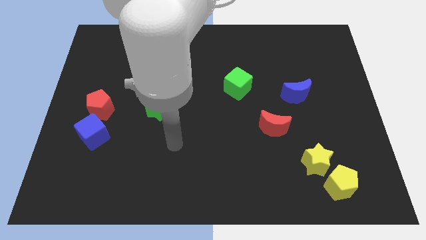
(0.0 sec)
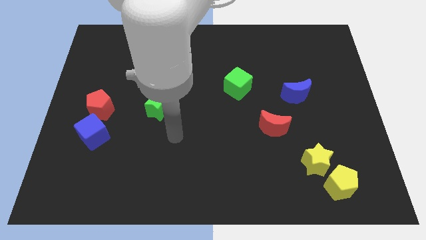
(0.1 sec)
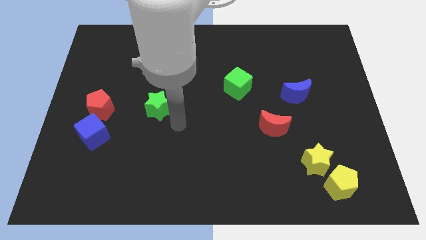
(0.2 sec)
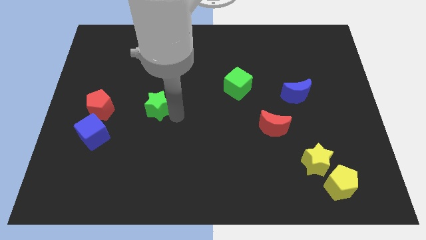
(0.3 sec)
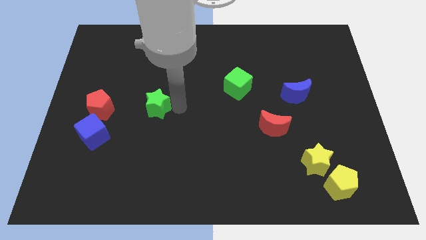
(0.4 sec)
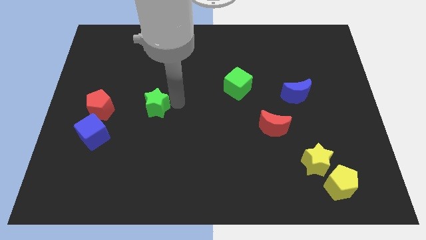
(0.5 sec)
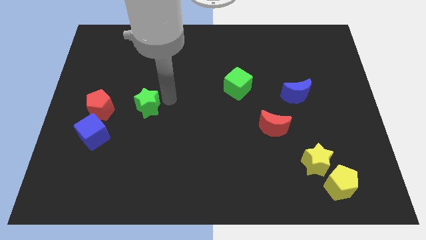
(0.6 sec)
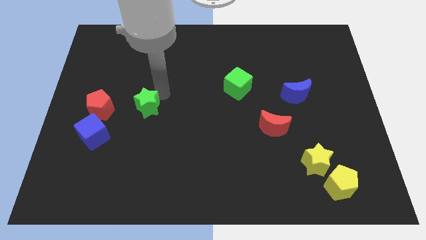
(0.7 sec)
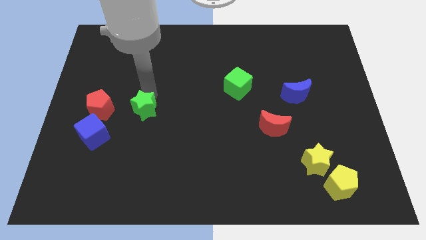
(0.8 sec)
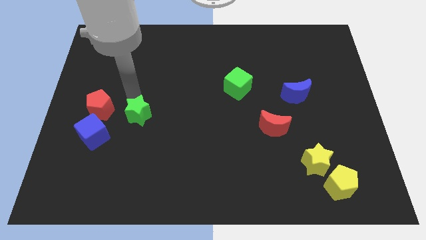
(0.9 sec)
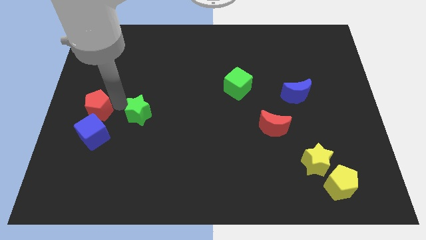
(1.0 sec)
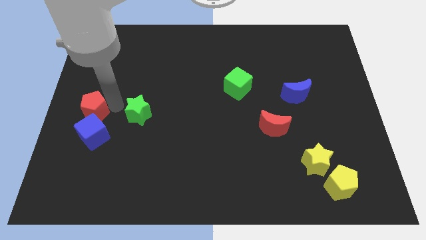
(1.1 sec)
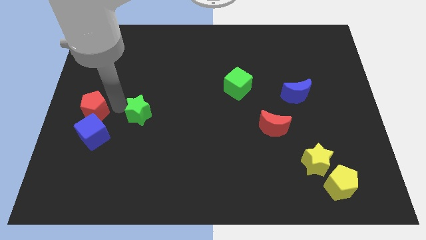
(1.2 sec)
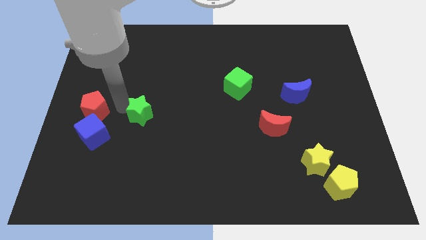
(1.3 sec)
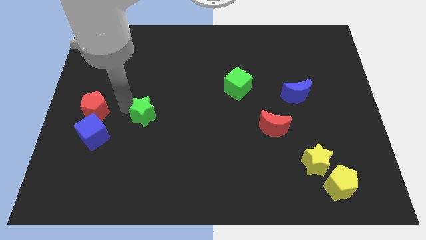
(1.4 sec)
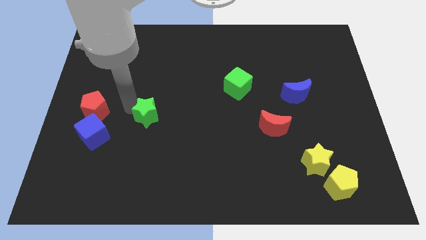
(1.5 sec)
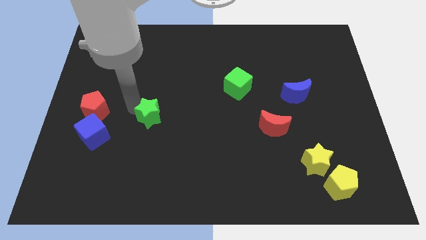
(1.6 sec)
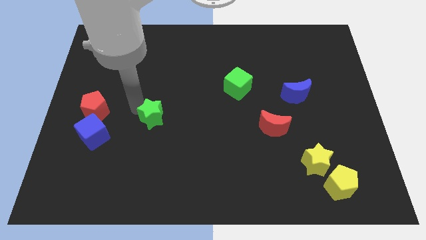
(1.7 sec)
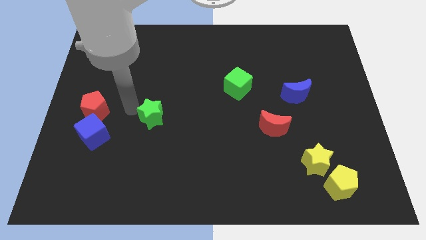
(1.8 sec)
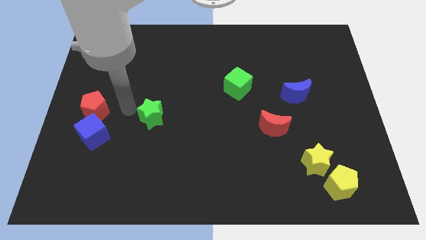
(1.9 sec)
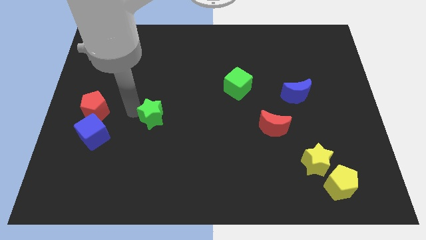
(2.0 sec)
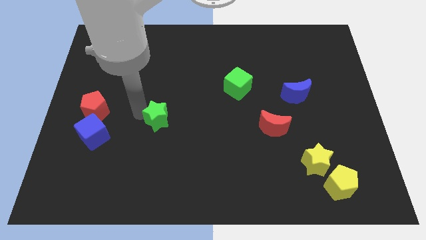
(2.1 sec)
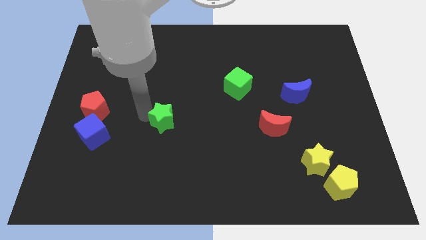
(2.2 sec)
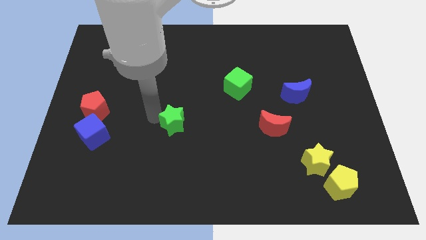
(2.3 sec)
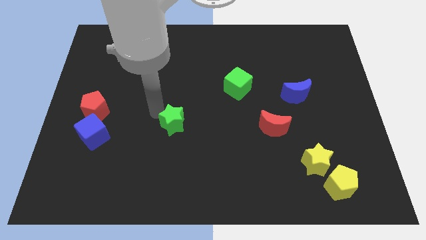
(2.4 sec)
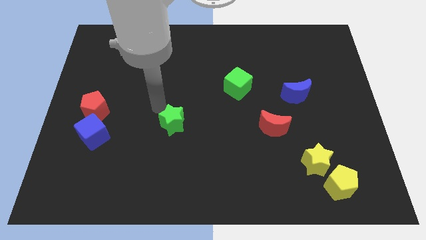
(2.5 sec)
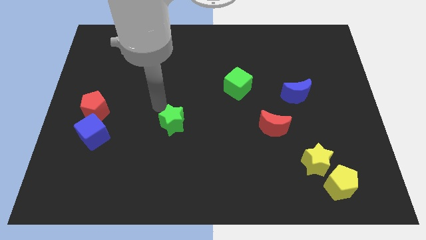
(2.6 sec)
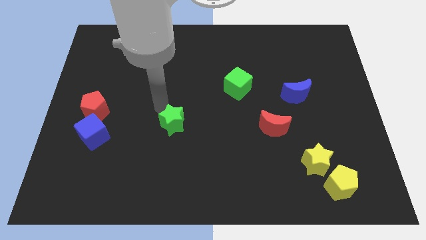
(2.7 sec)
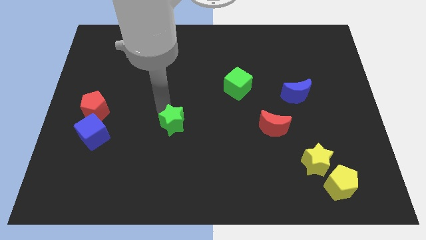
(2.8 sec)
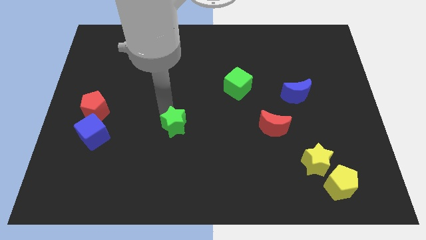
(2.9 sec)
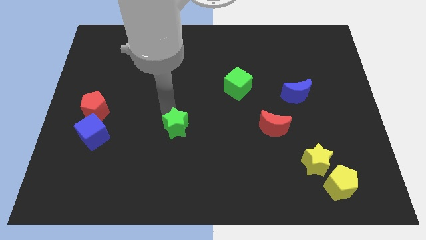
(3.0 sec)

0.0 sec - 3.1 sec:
push the green star a little downwards and right

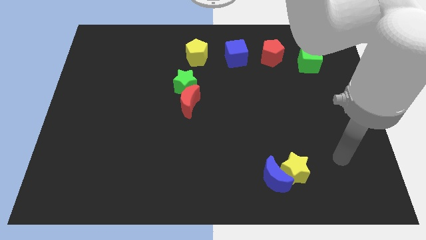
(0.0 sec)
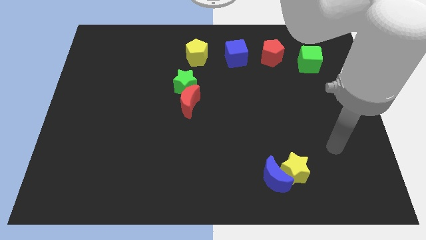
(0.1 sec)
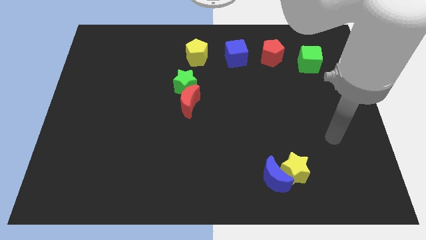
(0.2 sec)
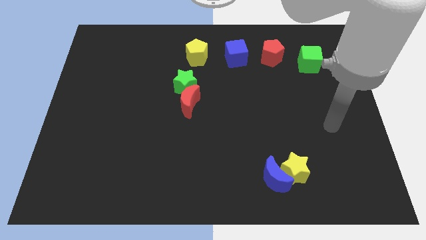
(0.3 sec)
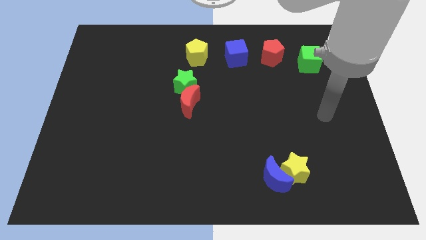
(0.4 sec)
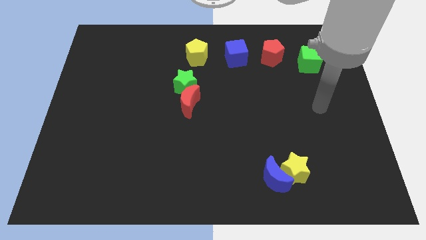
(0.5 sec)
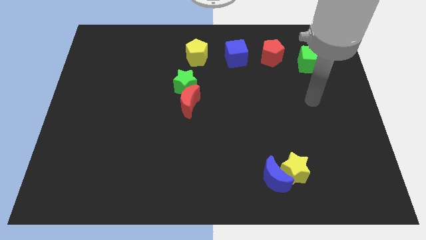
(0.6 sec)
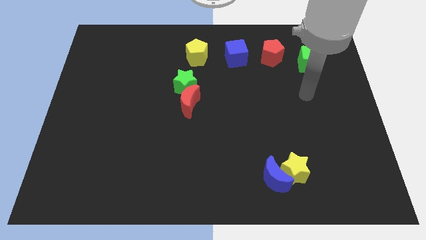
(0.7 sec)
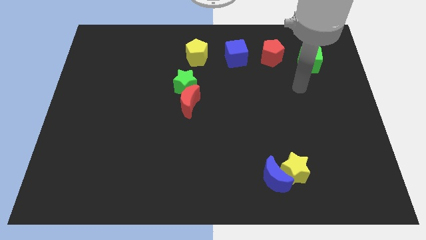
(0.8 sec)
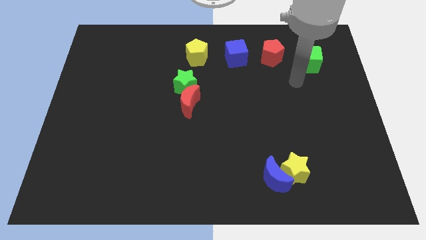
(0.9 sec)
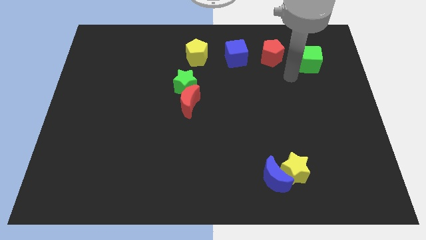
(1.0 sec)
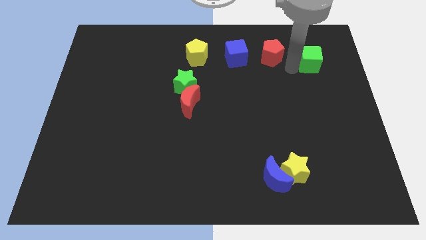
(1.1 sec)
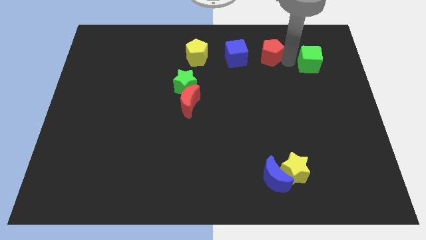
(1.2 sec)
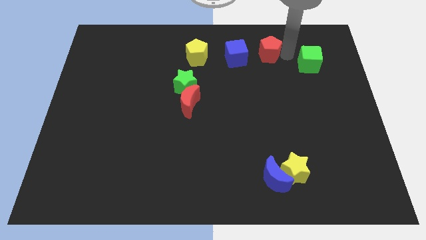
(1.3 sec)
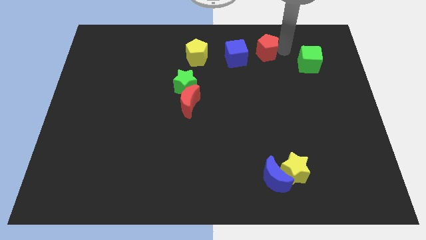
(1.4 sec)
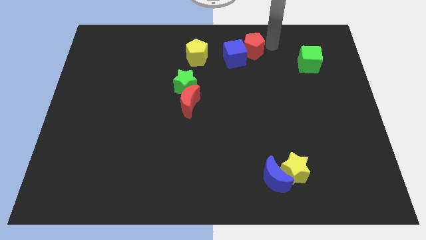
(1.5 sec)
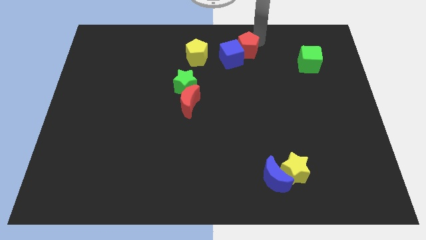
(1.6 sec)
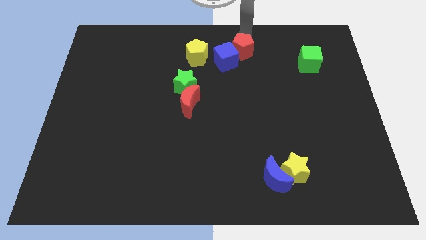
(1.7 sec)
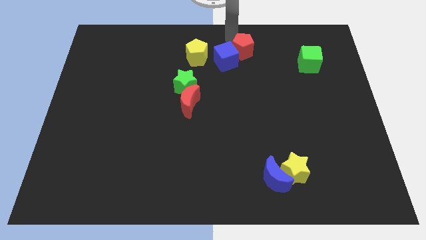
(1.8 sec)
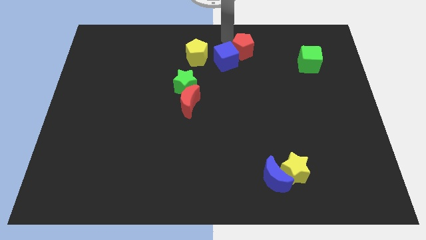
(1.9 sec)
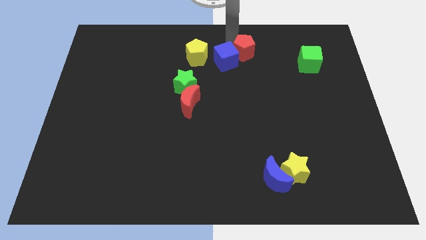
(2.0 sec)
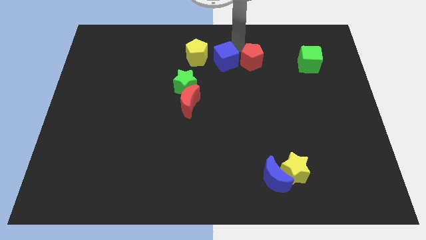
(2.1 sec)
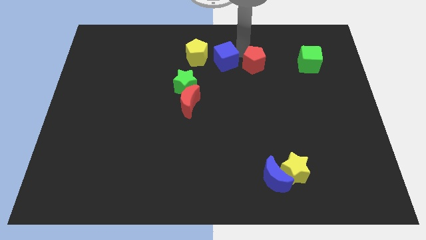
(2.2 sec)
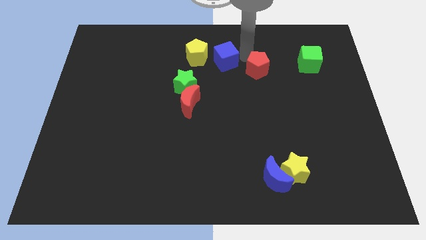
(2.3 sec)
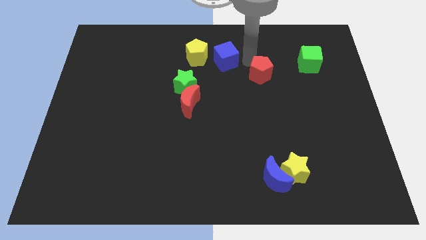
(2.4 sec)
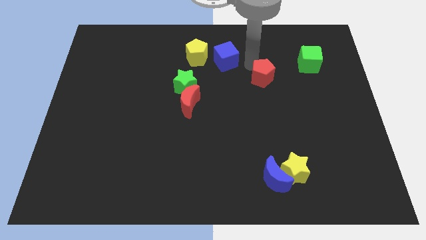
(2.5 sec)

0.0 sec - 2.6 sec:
slide the red pentagon downwards somewhat

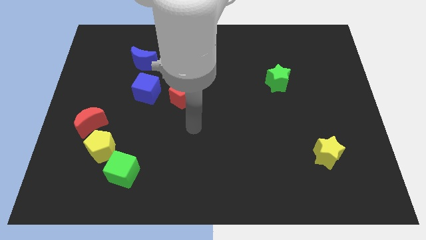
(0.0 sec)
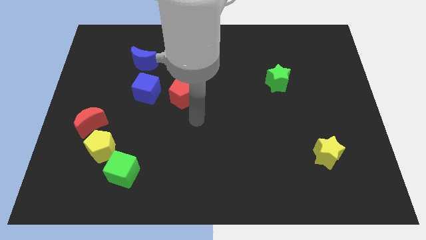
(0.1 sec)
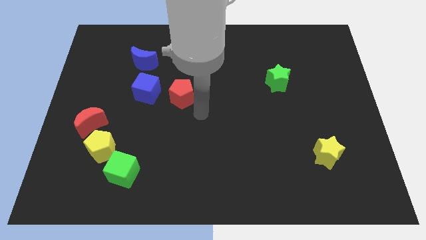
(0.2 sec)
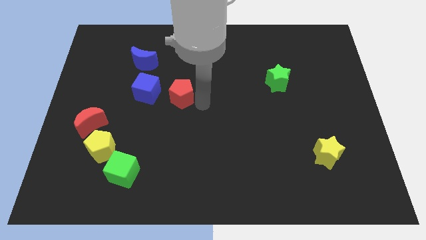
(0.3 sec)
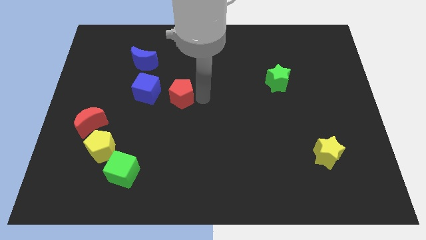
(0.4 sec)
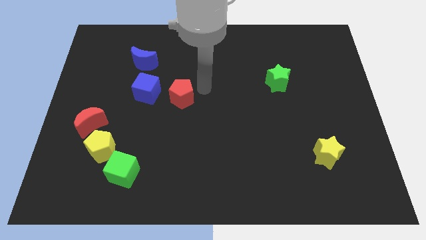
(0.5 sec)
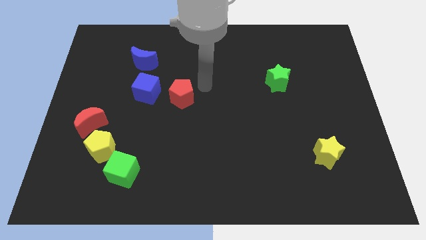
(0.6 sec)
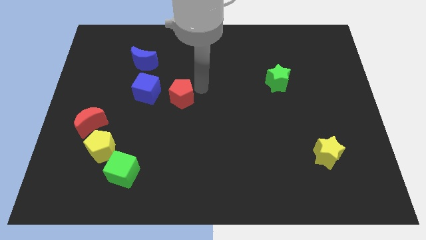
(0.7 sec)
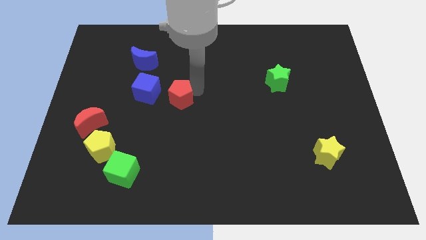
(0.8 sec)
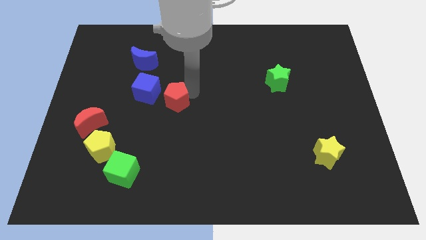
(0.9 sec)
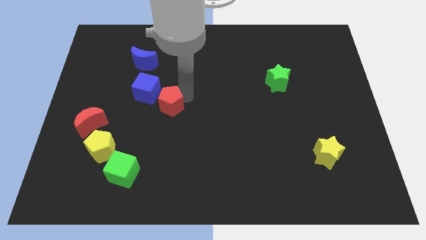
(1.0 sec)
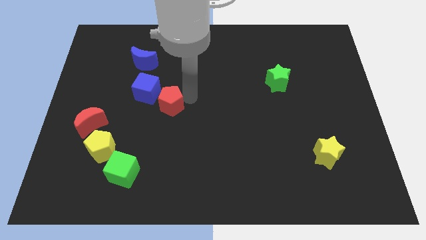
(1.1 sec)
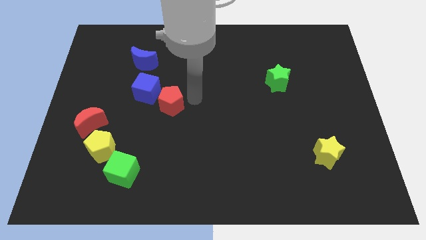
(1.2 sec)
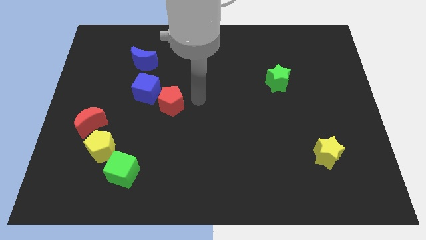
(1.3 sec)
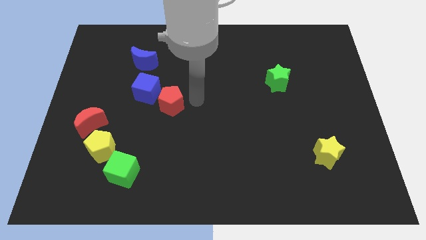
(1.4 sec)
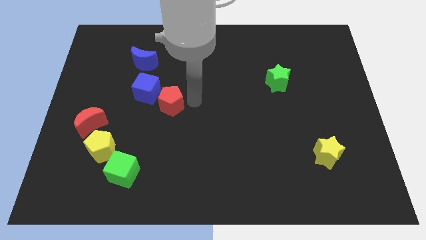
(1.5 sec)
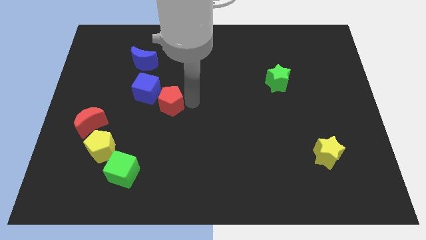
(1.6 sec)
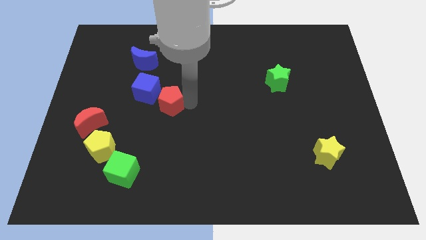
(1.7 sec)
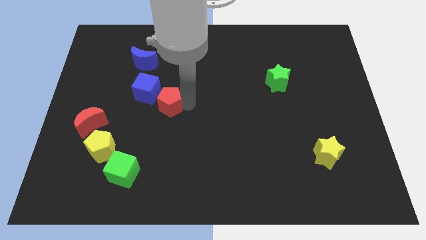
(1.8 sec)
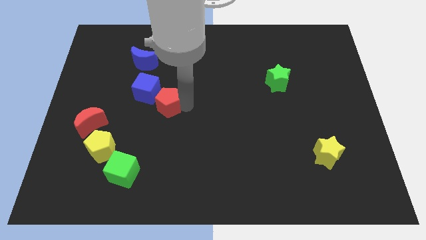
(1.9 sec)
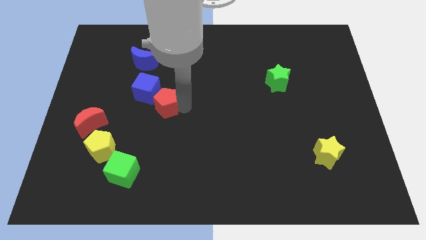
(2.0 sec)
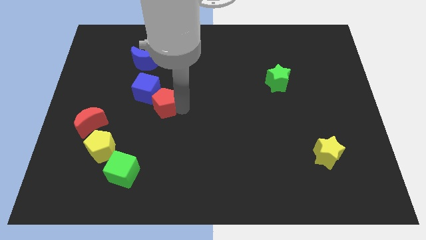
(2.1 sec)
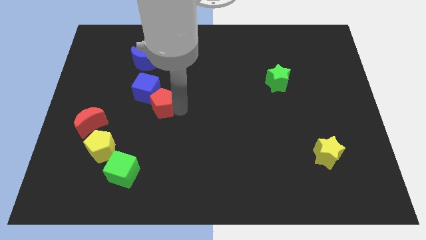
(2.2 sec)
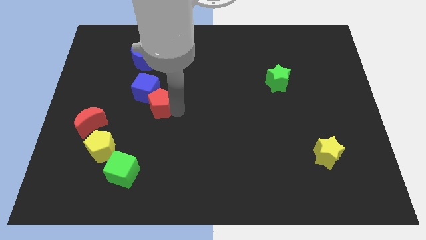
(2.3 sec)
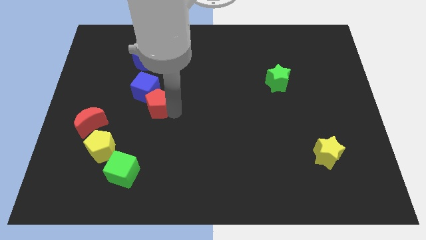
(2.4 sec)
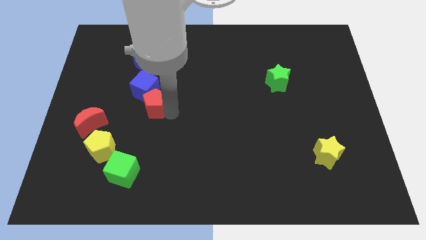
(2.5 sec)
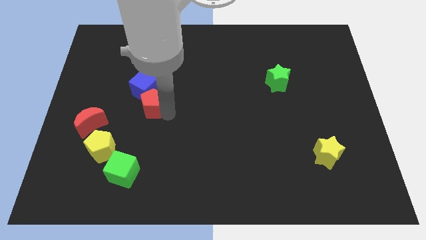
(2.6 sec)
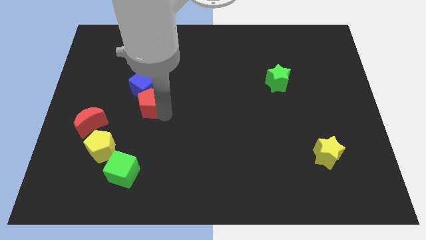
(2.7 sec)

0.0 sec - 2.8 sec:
push the red pentagon to the left a little bit
